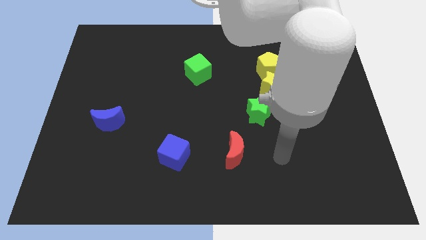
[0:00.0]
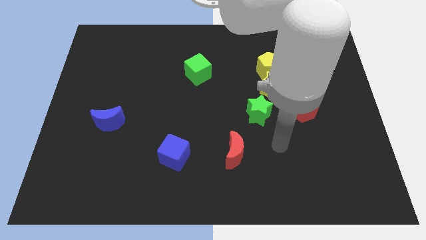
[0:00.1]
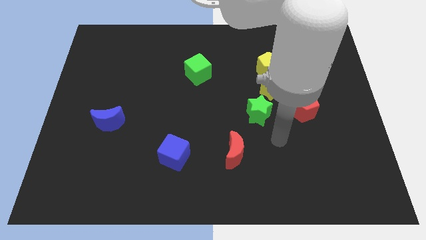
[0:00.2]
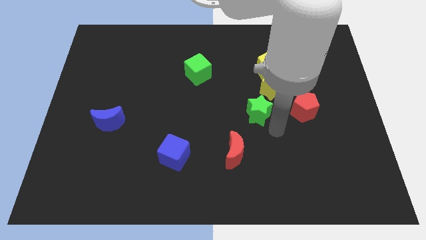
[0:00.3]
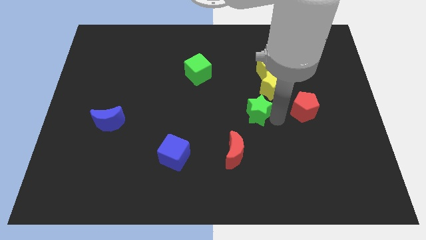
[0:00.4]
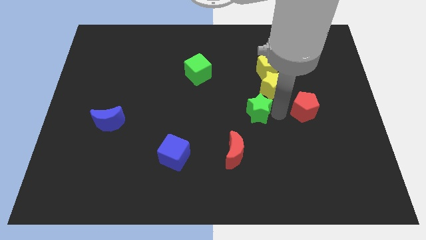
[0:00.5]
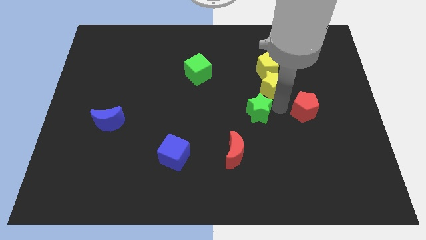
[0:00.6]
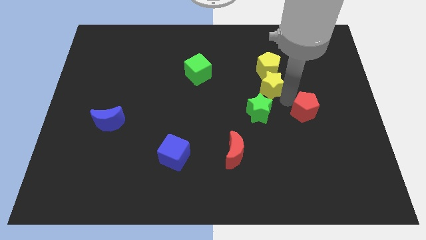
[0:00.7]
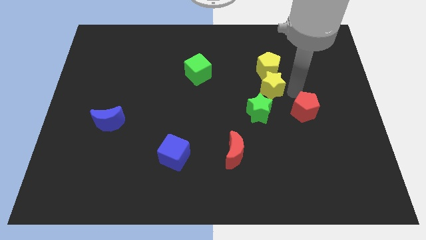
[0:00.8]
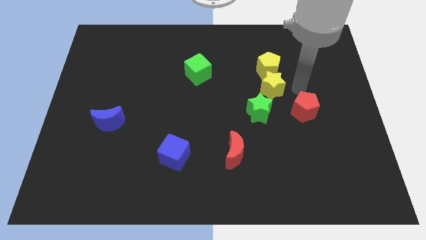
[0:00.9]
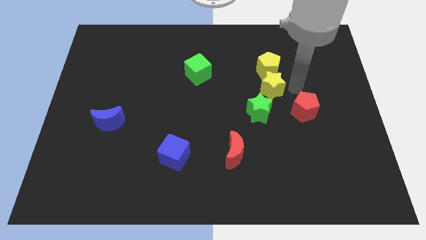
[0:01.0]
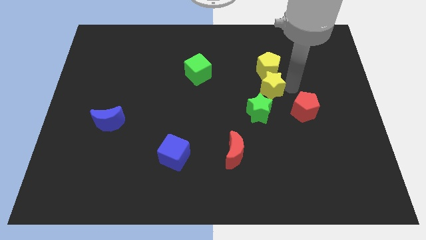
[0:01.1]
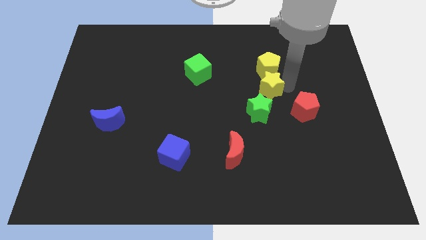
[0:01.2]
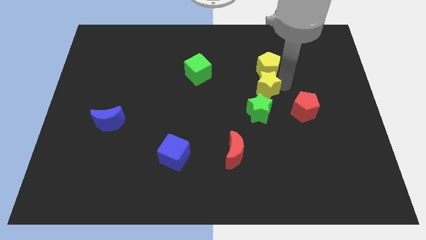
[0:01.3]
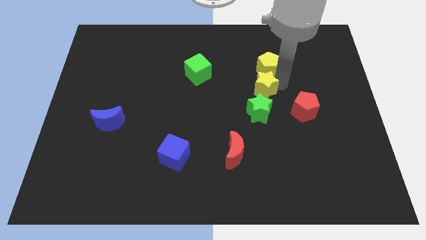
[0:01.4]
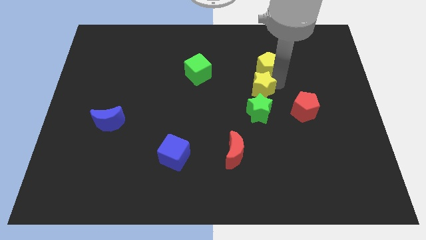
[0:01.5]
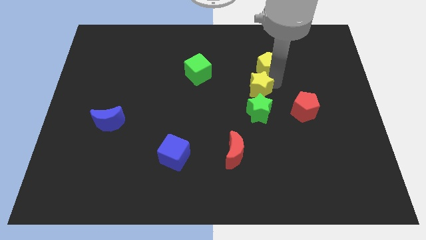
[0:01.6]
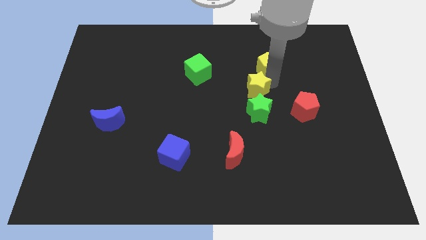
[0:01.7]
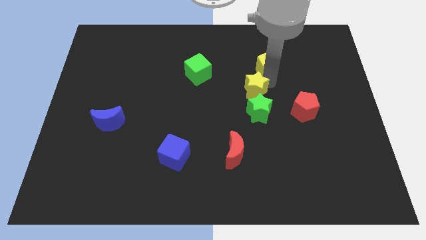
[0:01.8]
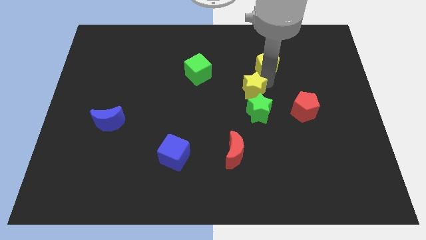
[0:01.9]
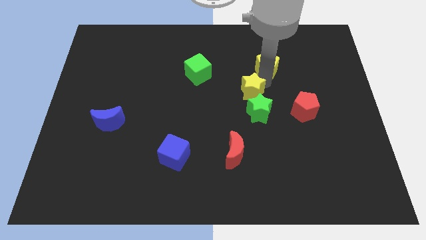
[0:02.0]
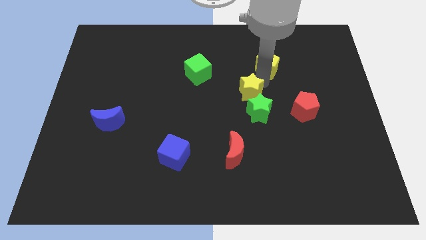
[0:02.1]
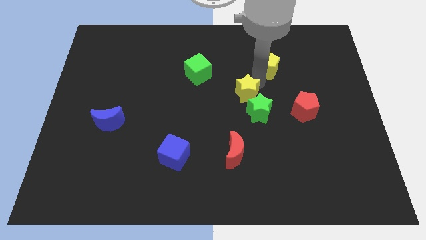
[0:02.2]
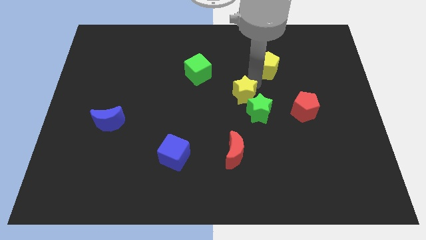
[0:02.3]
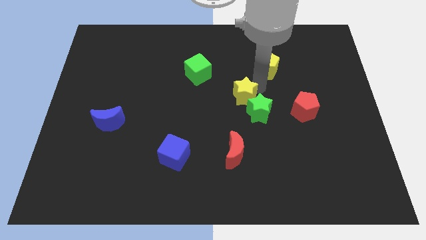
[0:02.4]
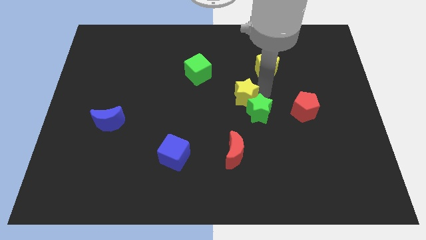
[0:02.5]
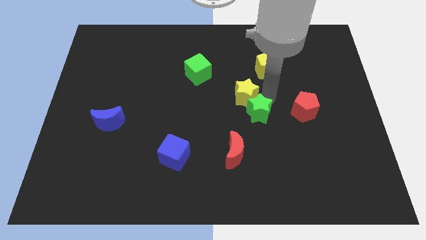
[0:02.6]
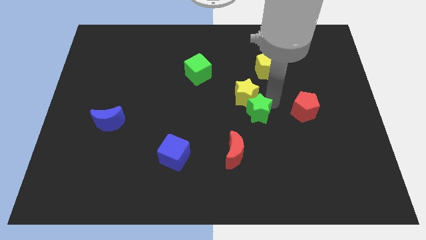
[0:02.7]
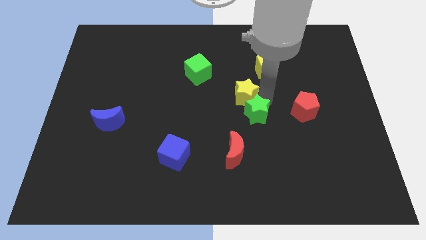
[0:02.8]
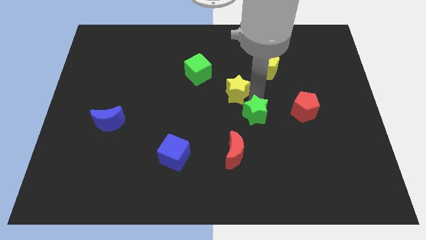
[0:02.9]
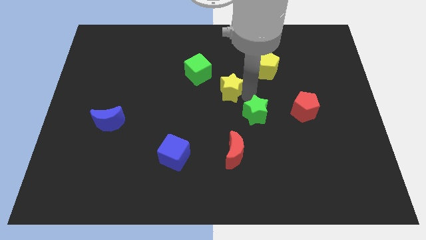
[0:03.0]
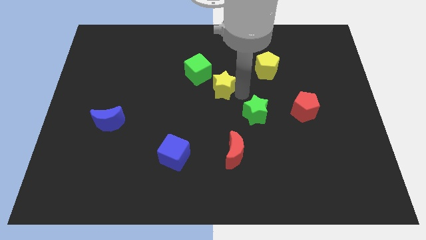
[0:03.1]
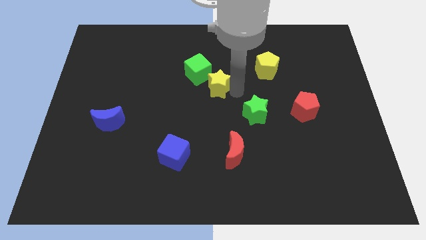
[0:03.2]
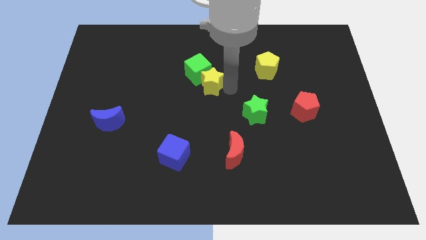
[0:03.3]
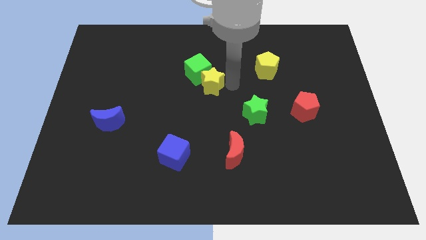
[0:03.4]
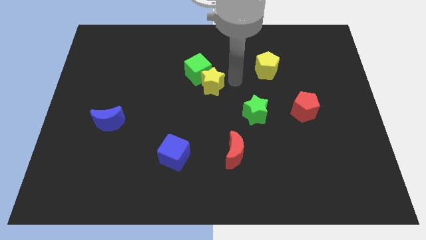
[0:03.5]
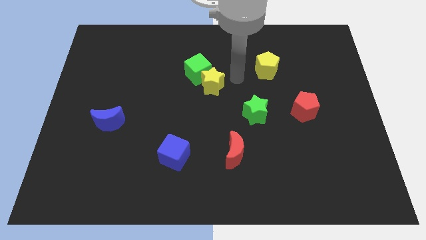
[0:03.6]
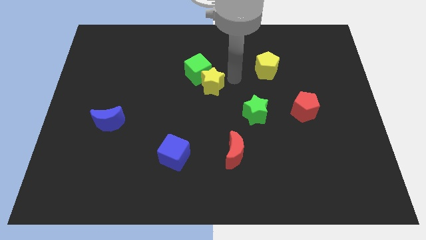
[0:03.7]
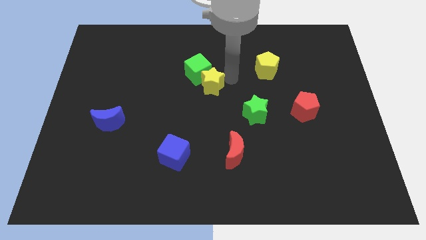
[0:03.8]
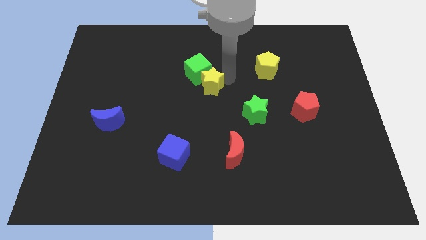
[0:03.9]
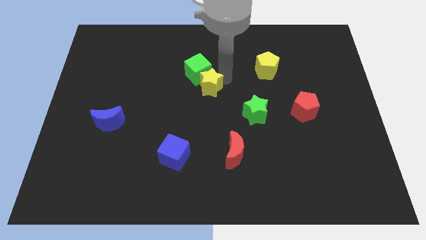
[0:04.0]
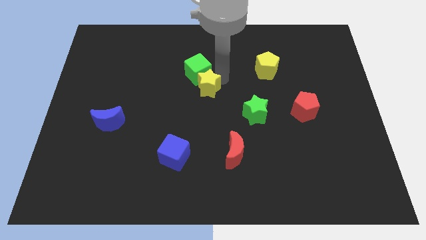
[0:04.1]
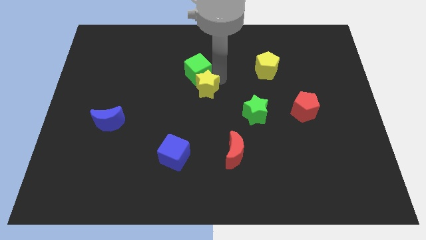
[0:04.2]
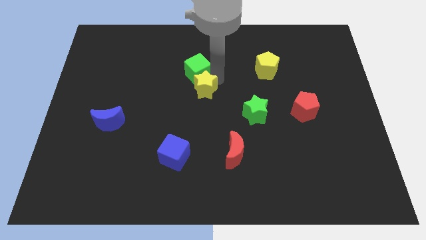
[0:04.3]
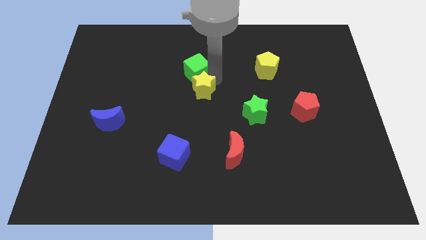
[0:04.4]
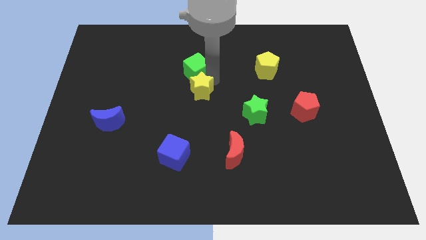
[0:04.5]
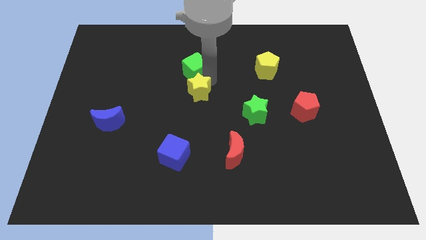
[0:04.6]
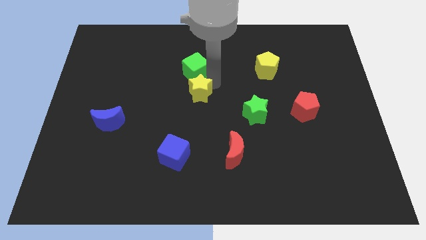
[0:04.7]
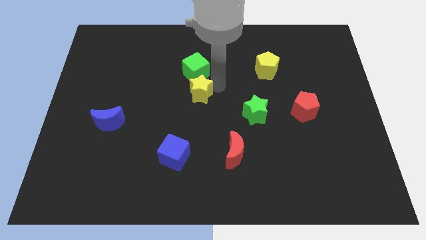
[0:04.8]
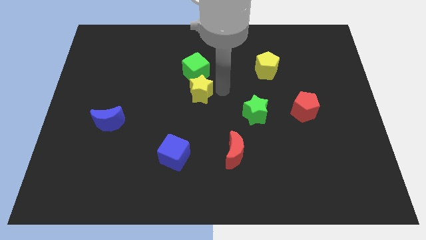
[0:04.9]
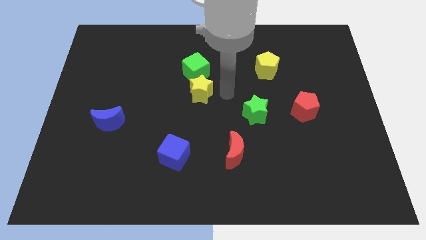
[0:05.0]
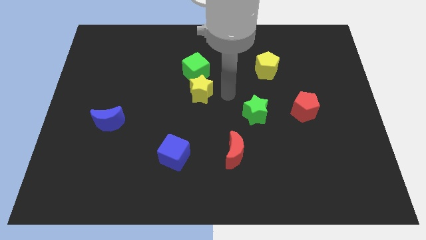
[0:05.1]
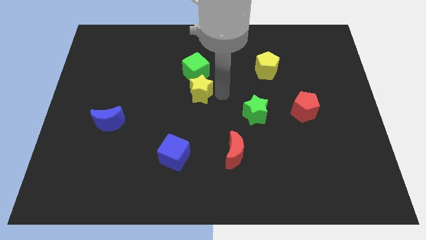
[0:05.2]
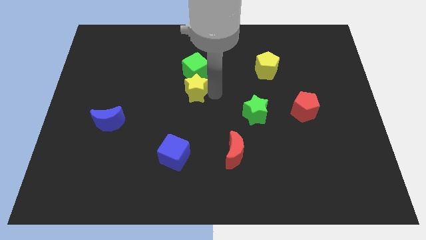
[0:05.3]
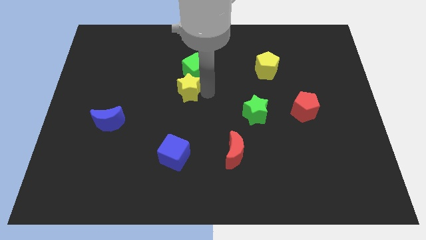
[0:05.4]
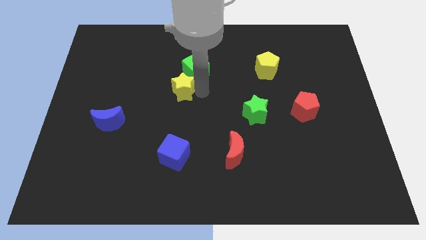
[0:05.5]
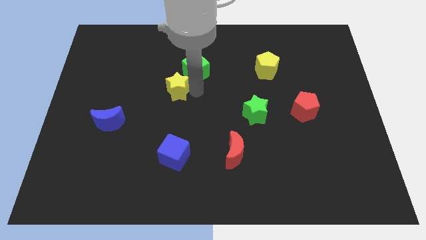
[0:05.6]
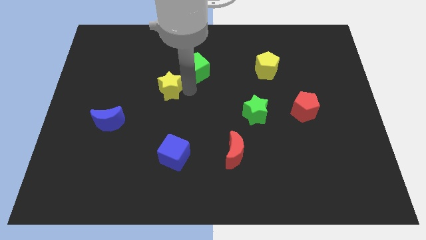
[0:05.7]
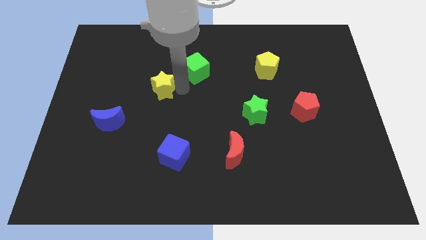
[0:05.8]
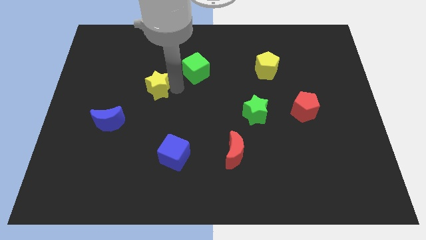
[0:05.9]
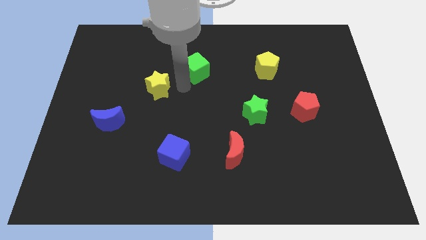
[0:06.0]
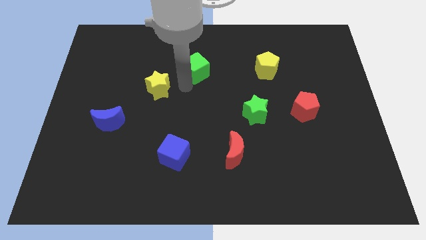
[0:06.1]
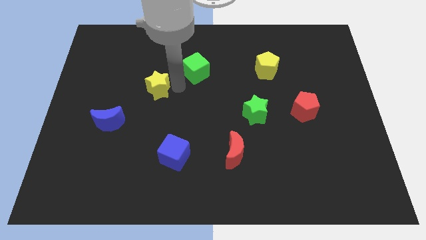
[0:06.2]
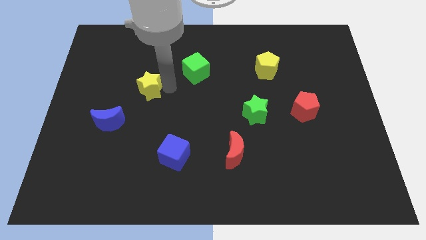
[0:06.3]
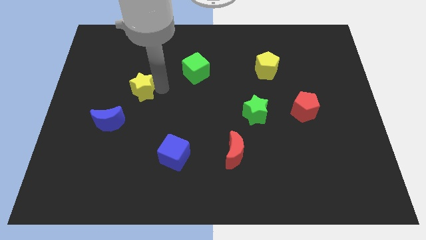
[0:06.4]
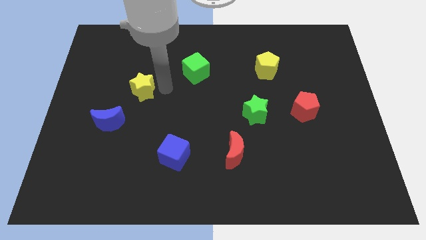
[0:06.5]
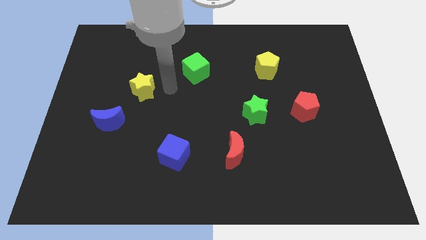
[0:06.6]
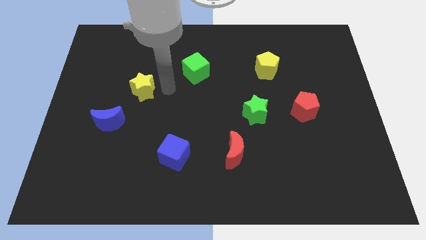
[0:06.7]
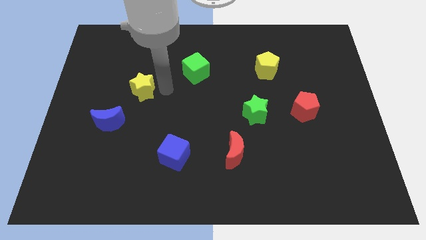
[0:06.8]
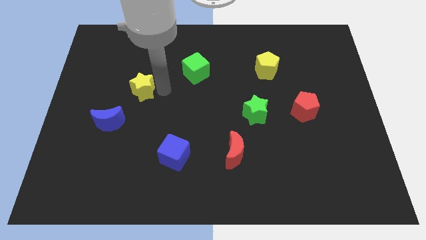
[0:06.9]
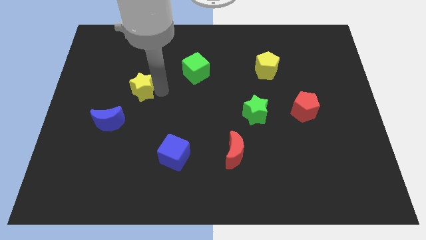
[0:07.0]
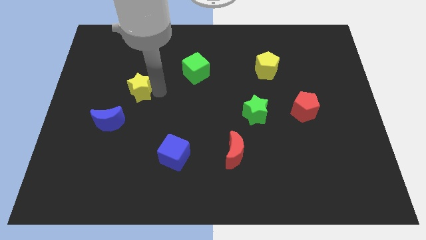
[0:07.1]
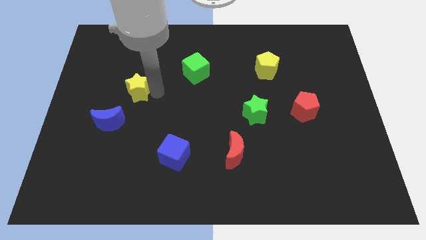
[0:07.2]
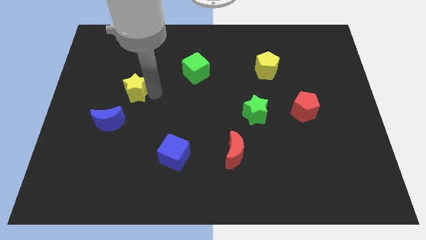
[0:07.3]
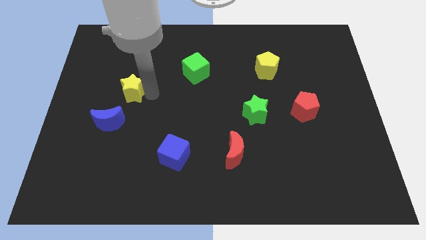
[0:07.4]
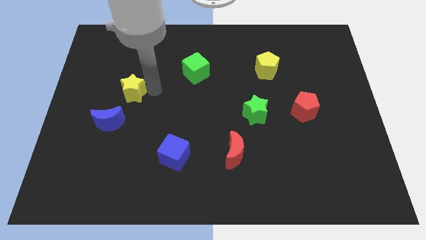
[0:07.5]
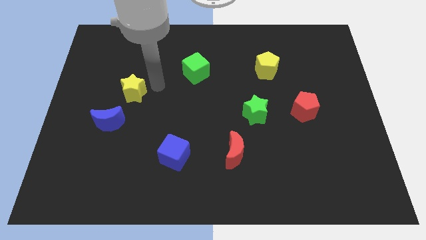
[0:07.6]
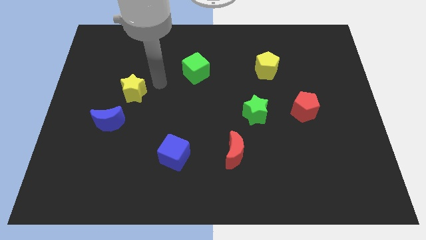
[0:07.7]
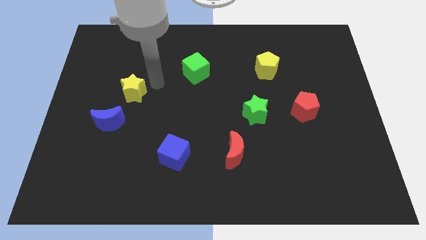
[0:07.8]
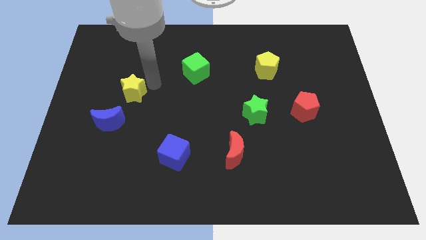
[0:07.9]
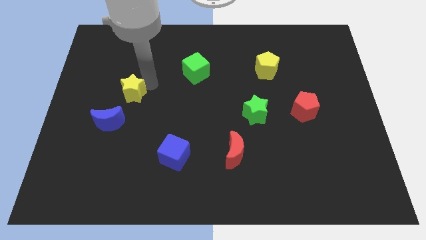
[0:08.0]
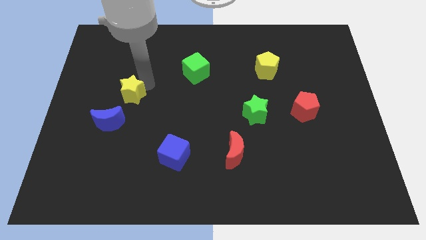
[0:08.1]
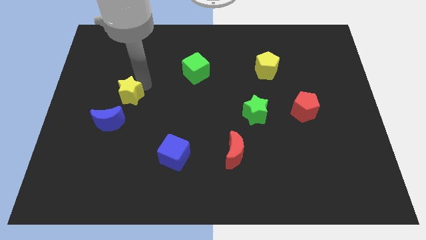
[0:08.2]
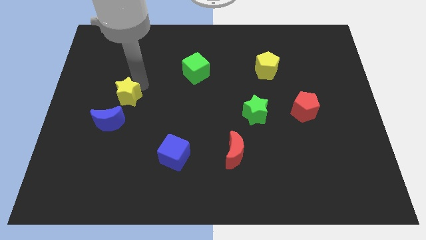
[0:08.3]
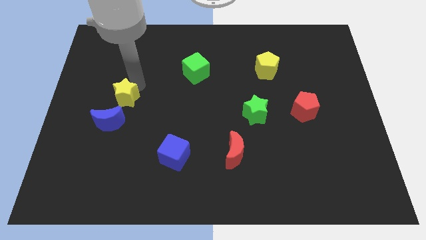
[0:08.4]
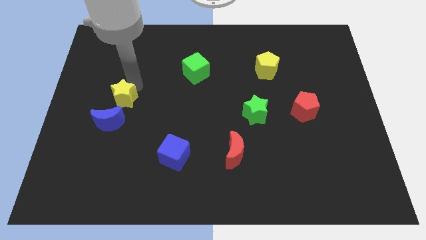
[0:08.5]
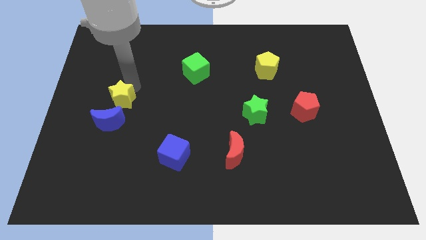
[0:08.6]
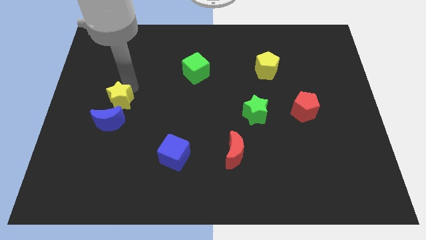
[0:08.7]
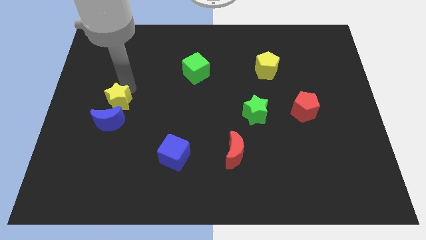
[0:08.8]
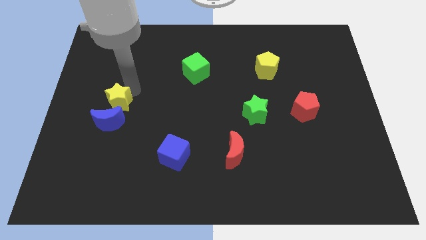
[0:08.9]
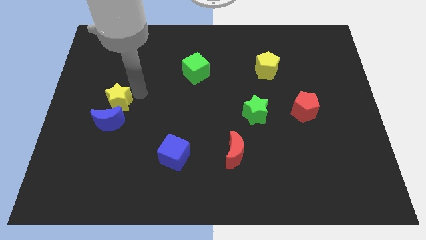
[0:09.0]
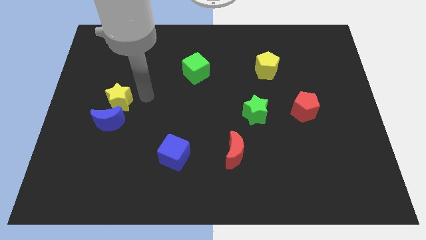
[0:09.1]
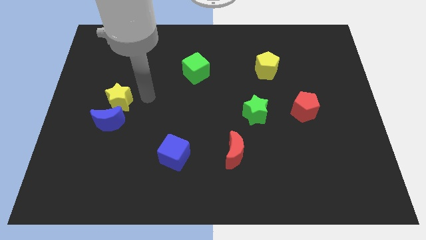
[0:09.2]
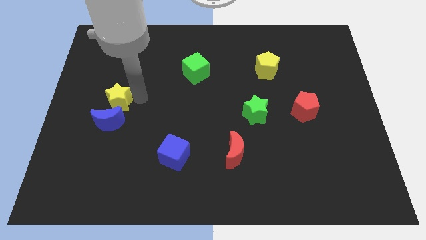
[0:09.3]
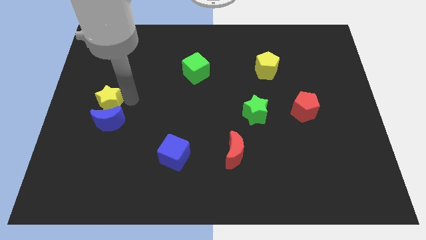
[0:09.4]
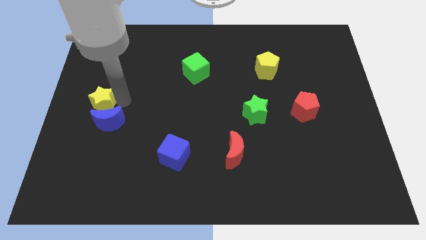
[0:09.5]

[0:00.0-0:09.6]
move the yellow star to the left side
